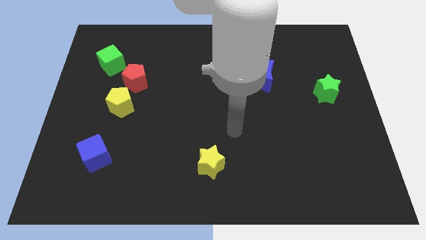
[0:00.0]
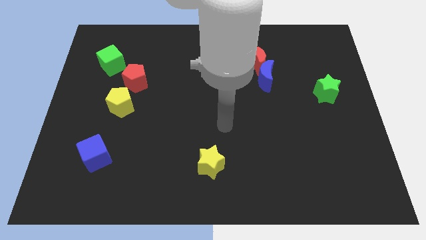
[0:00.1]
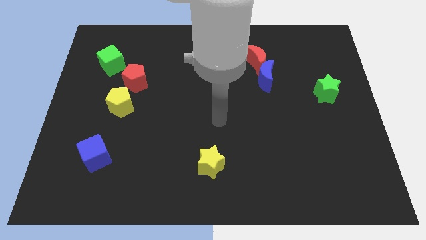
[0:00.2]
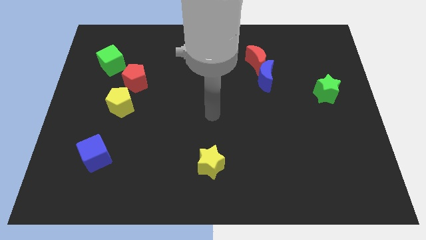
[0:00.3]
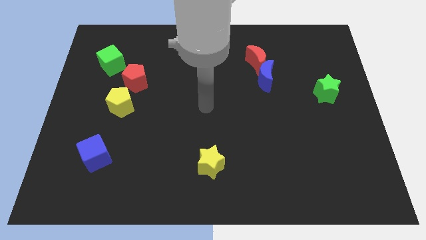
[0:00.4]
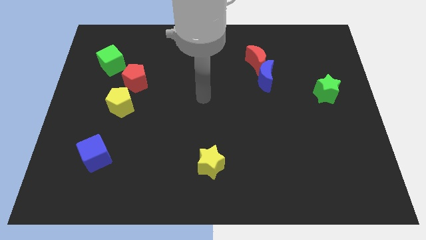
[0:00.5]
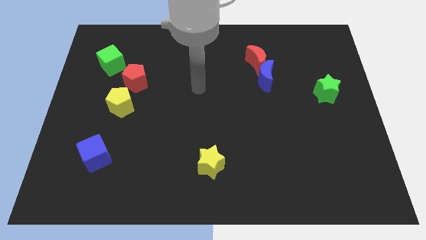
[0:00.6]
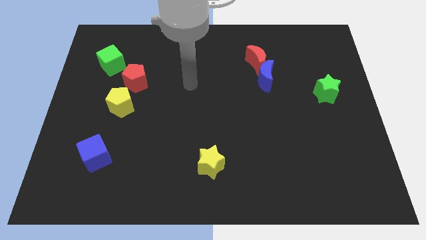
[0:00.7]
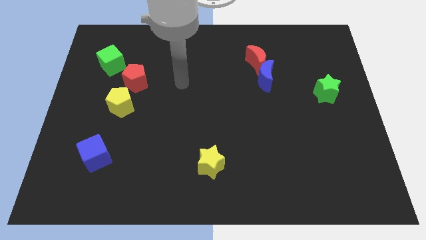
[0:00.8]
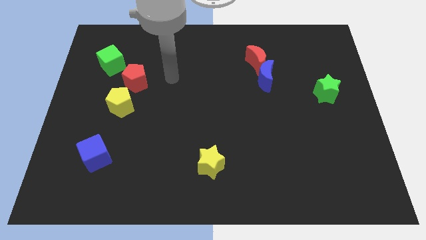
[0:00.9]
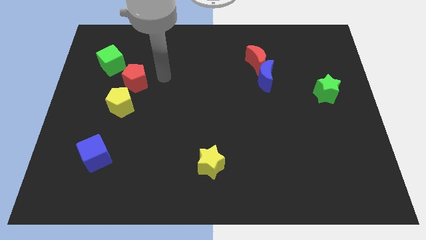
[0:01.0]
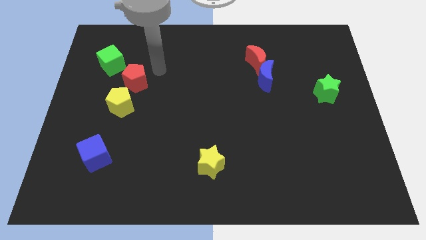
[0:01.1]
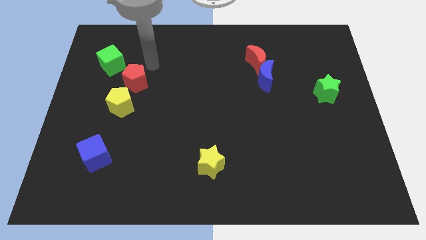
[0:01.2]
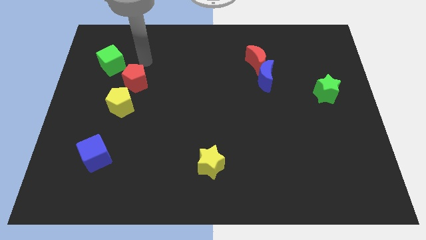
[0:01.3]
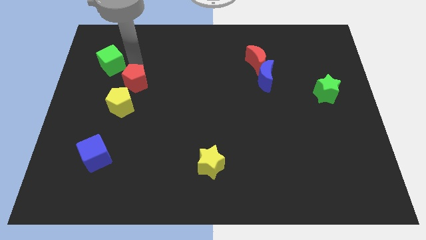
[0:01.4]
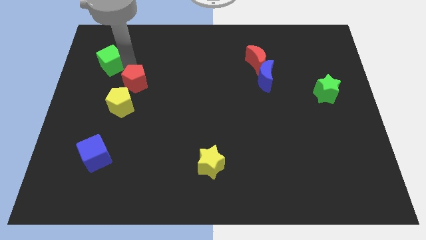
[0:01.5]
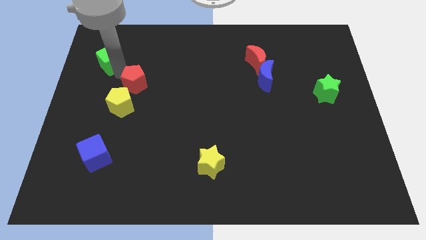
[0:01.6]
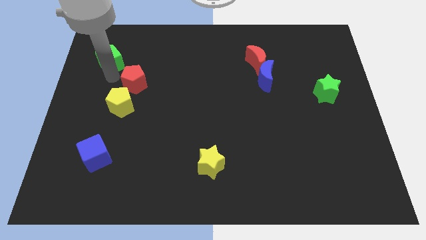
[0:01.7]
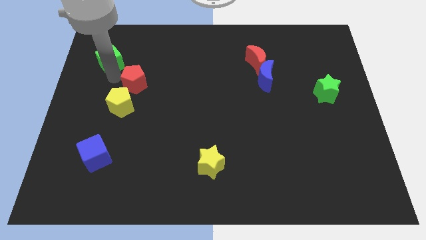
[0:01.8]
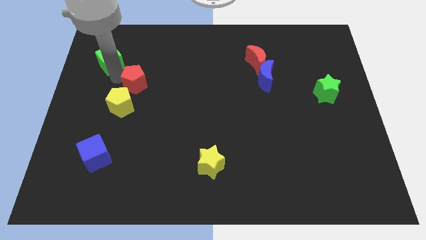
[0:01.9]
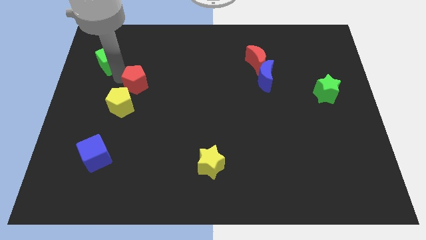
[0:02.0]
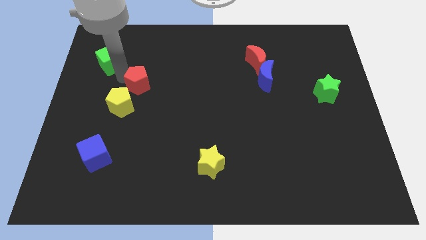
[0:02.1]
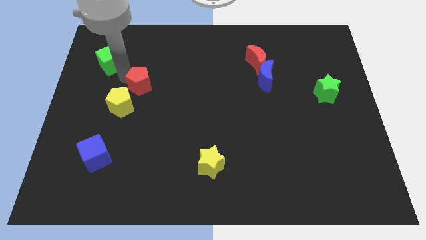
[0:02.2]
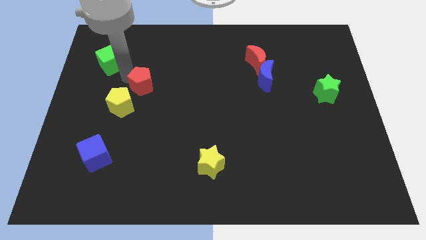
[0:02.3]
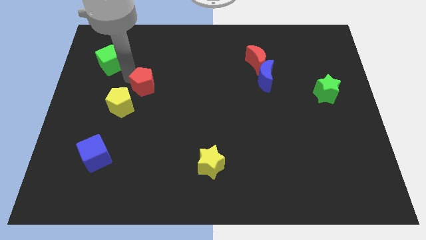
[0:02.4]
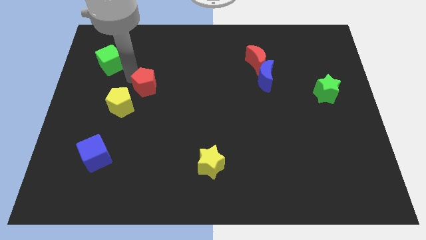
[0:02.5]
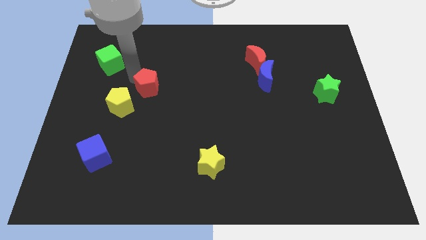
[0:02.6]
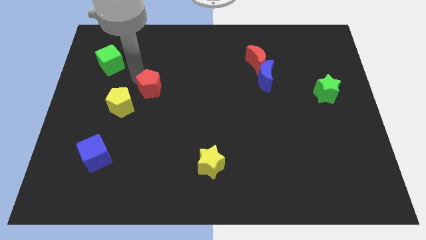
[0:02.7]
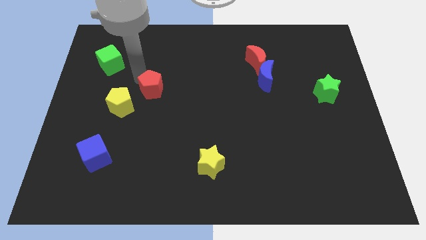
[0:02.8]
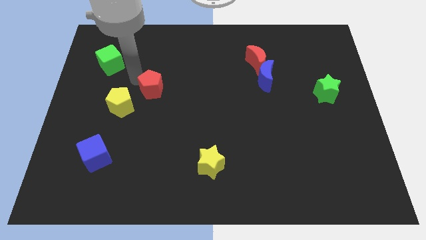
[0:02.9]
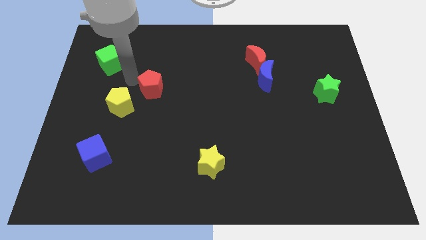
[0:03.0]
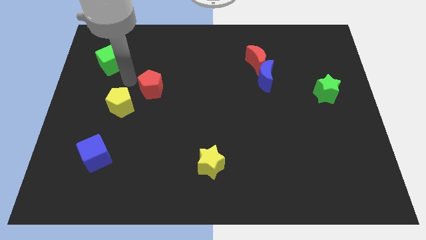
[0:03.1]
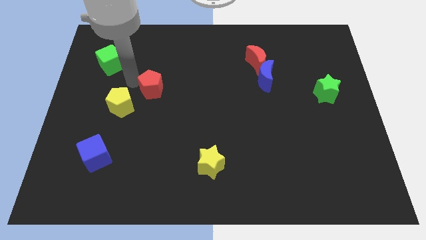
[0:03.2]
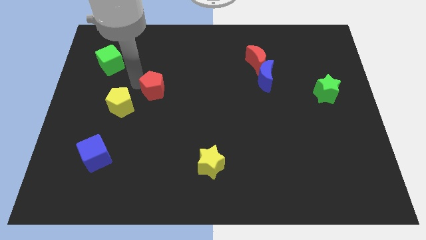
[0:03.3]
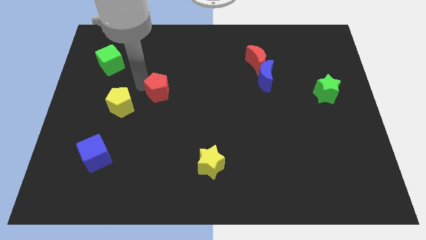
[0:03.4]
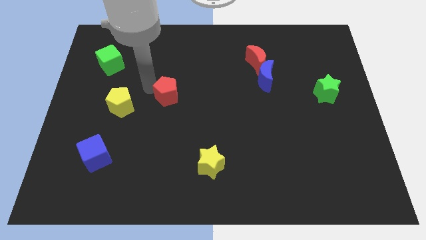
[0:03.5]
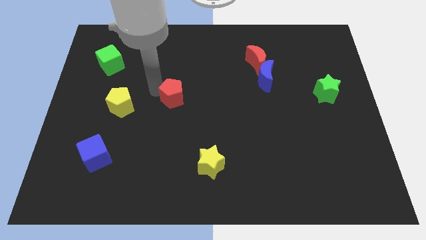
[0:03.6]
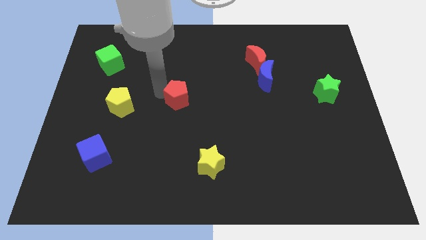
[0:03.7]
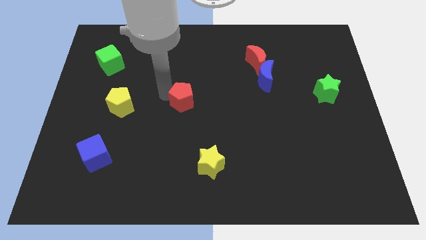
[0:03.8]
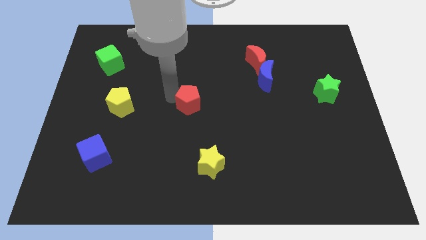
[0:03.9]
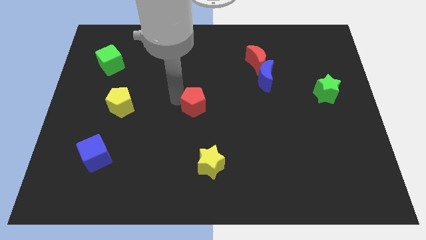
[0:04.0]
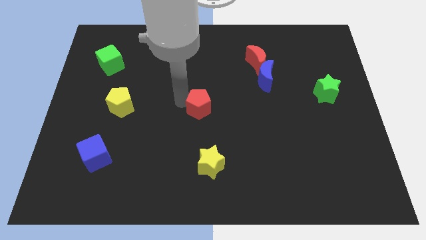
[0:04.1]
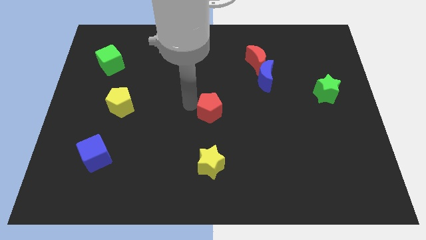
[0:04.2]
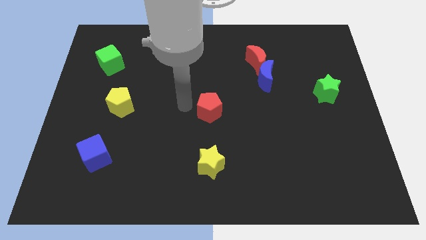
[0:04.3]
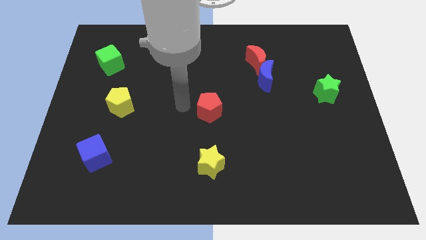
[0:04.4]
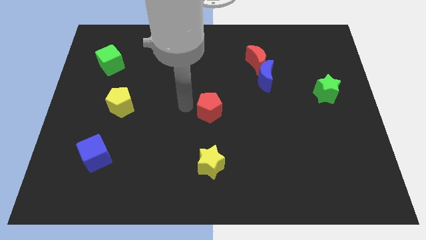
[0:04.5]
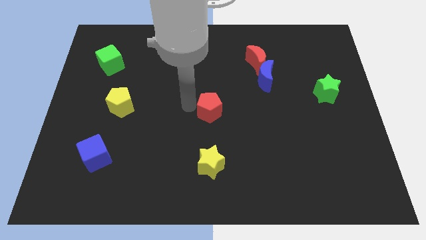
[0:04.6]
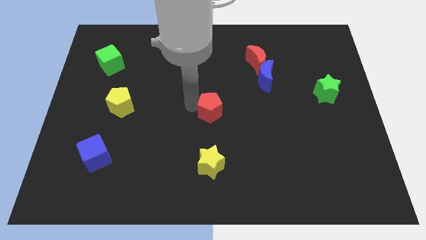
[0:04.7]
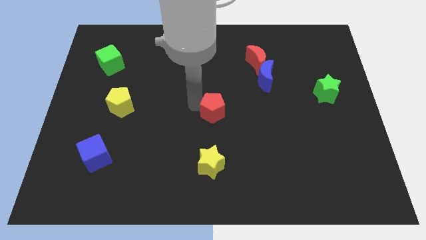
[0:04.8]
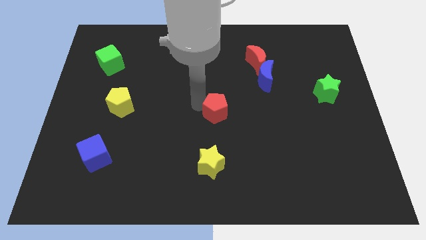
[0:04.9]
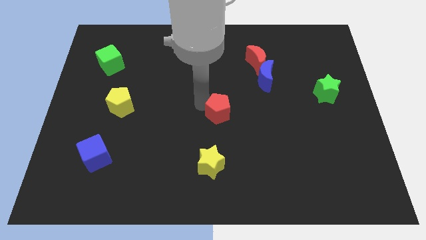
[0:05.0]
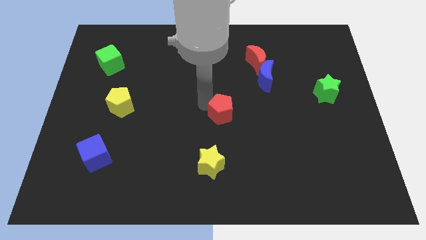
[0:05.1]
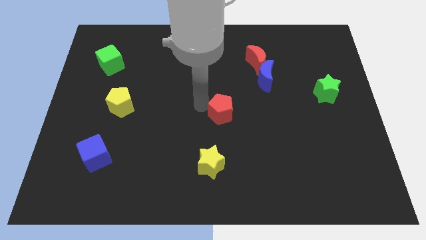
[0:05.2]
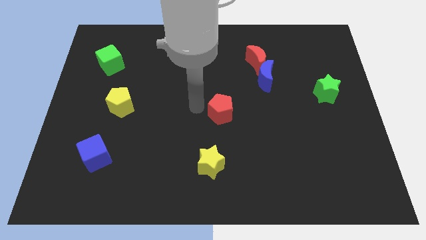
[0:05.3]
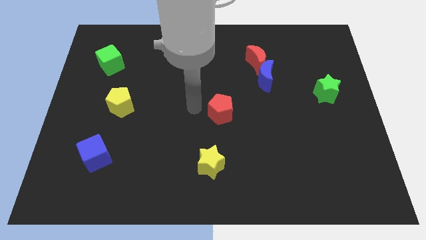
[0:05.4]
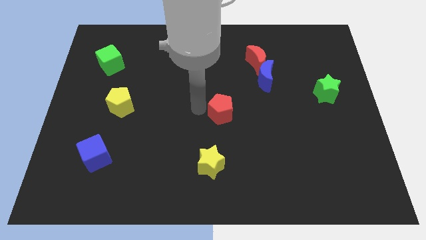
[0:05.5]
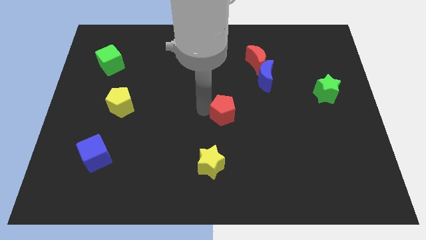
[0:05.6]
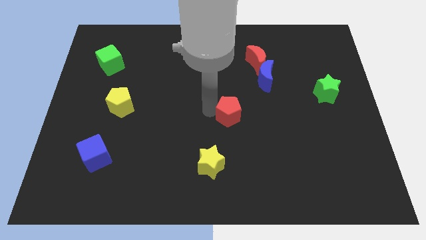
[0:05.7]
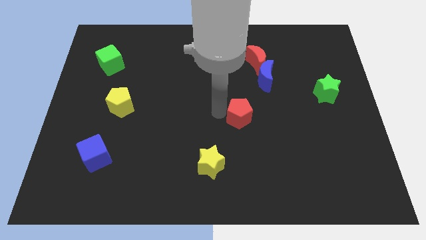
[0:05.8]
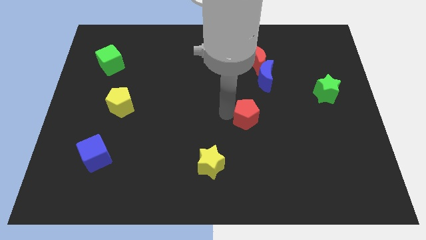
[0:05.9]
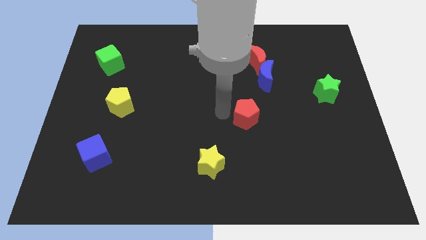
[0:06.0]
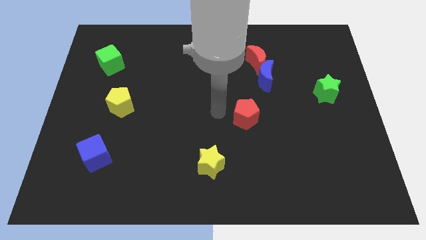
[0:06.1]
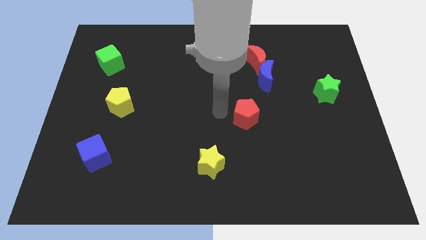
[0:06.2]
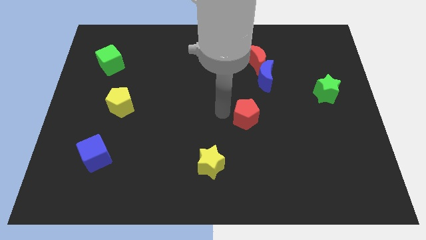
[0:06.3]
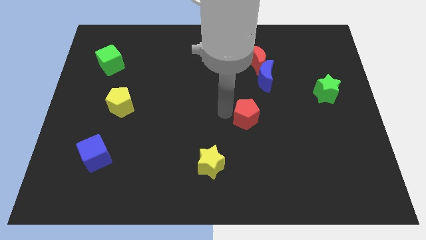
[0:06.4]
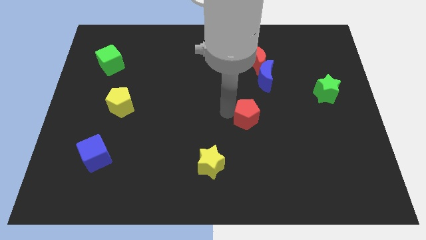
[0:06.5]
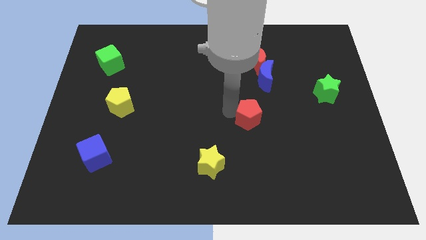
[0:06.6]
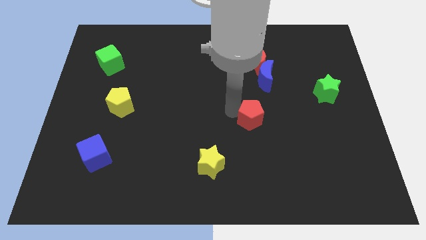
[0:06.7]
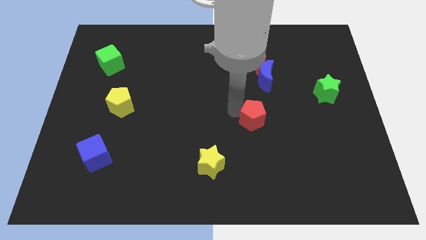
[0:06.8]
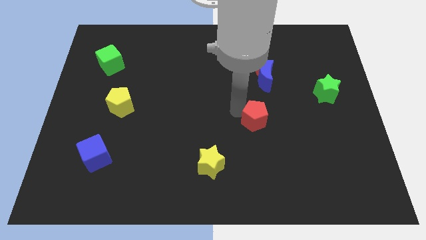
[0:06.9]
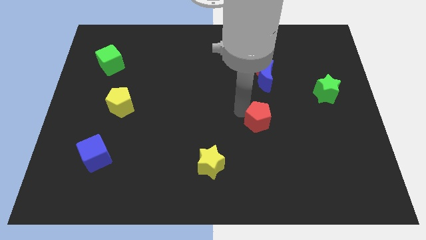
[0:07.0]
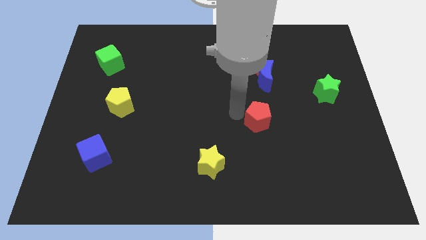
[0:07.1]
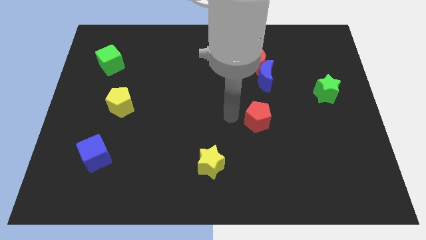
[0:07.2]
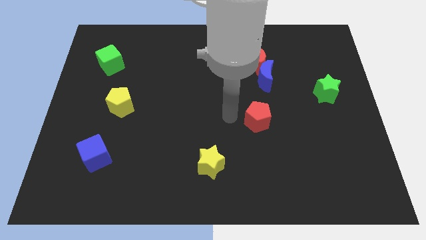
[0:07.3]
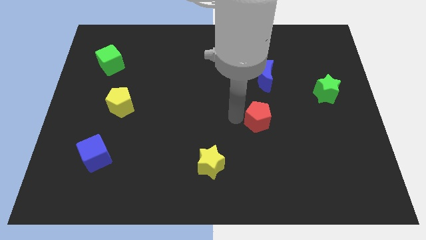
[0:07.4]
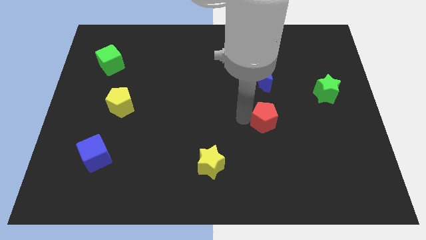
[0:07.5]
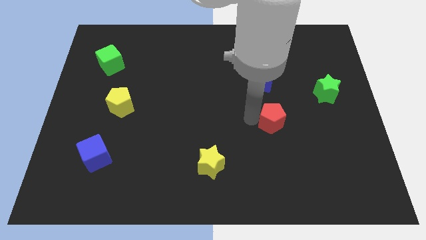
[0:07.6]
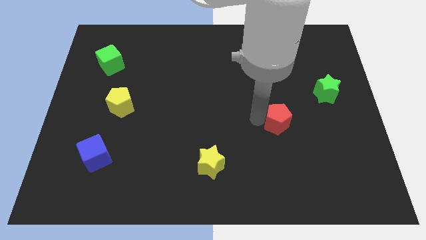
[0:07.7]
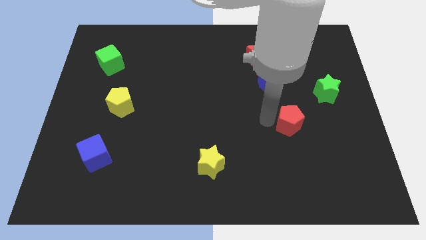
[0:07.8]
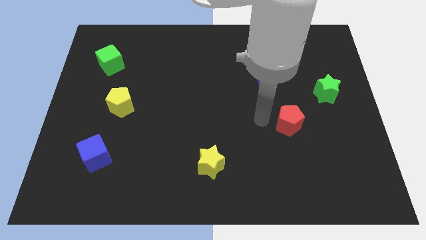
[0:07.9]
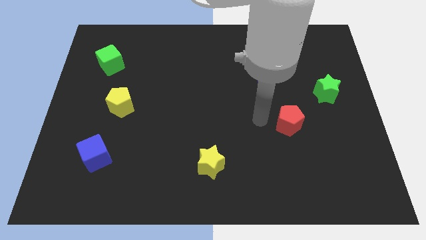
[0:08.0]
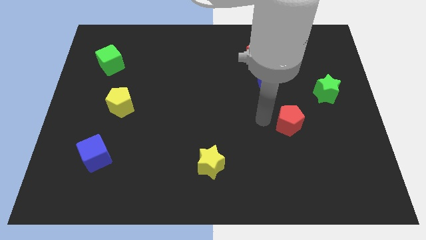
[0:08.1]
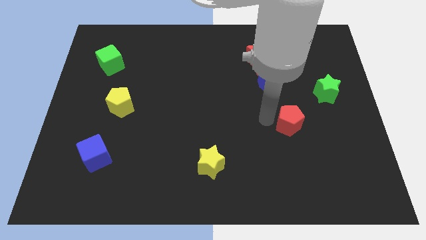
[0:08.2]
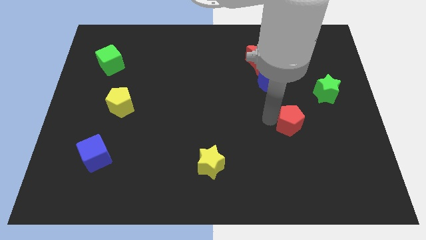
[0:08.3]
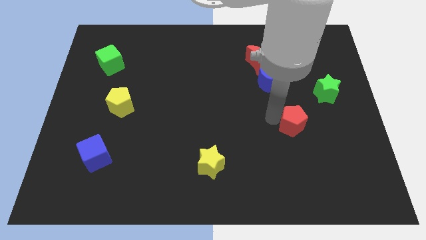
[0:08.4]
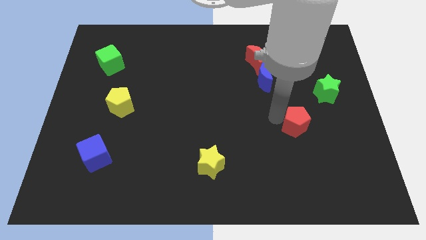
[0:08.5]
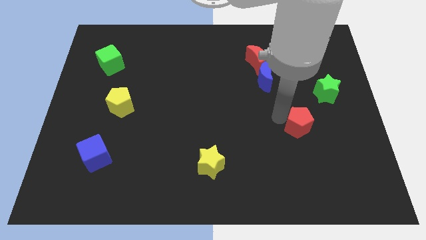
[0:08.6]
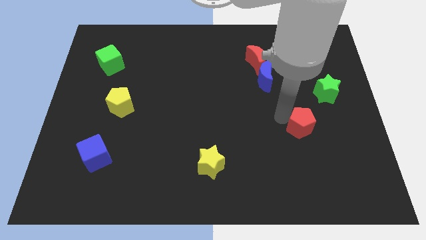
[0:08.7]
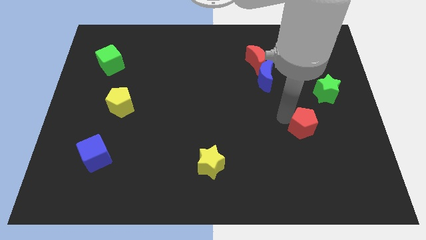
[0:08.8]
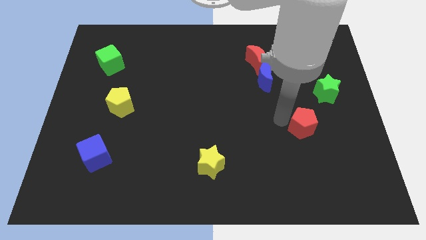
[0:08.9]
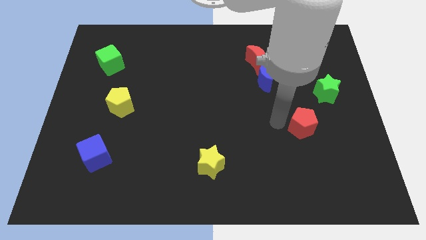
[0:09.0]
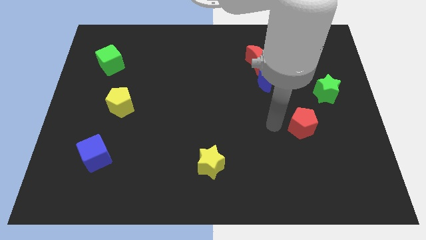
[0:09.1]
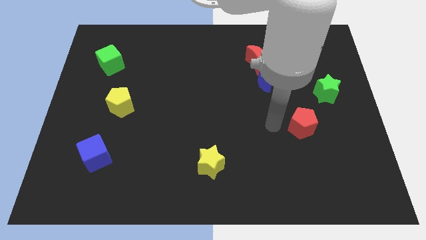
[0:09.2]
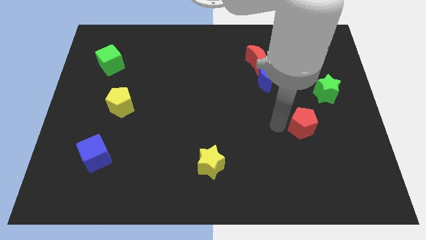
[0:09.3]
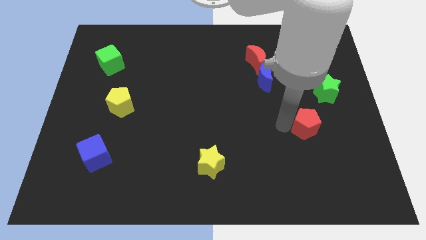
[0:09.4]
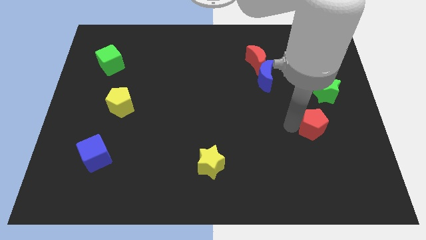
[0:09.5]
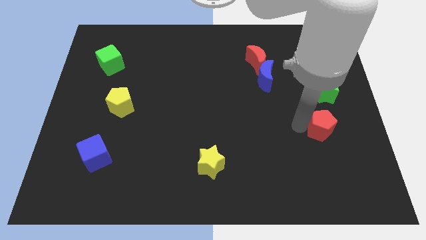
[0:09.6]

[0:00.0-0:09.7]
put the red pentagon to the bottom side of the green star
